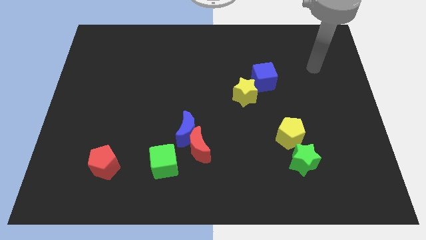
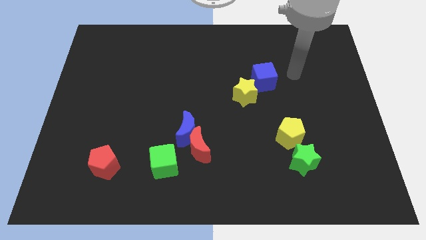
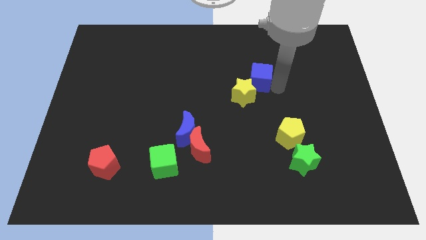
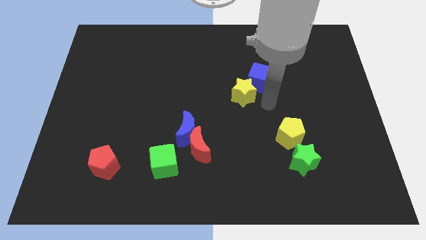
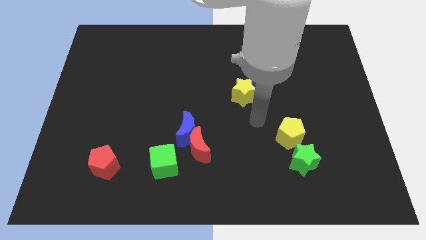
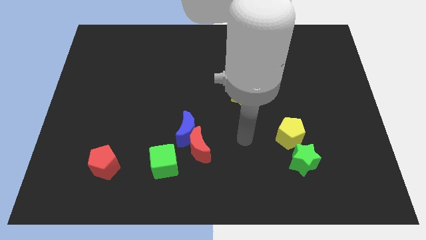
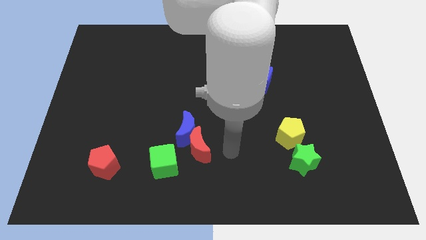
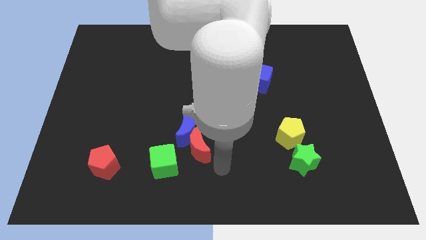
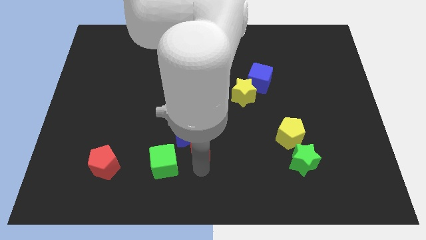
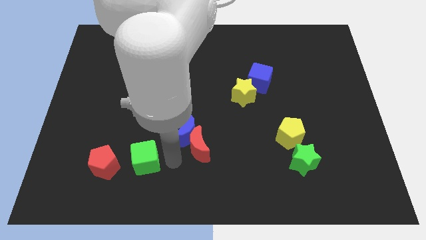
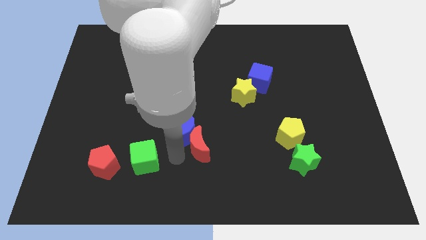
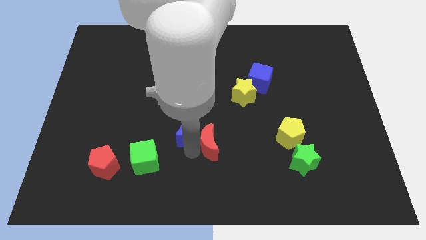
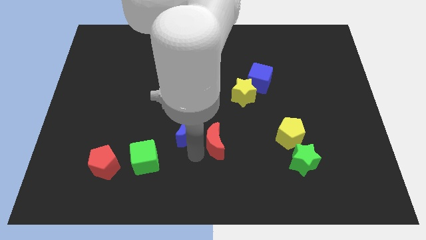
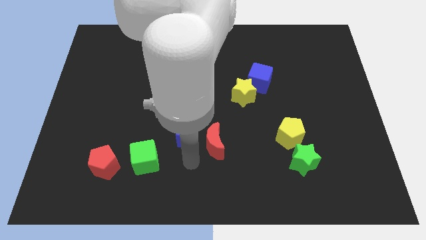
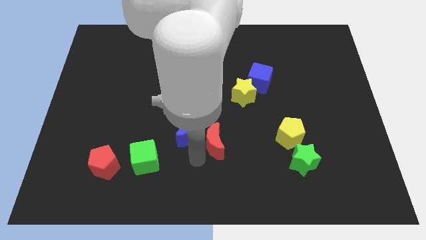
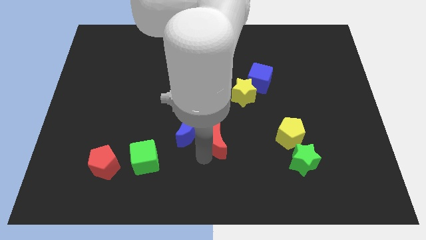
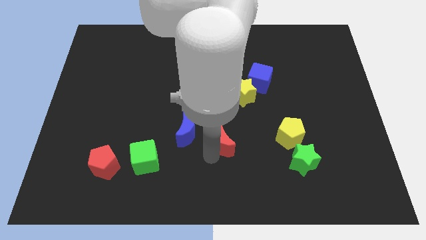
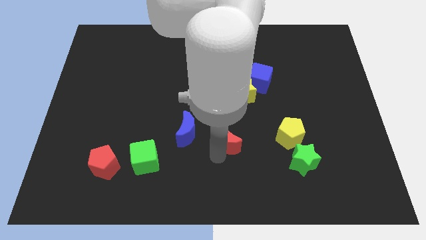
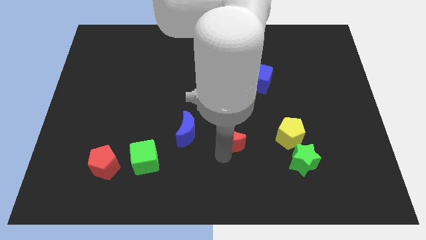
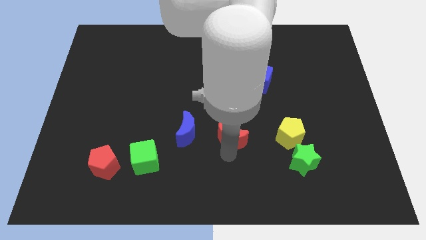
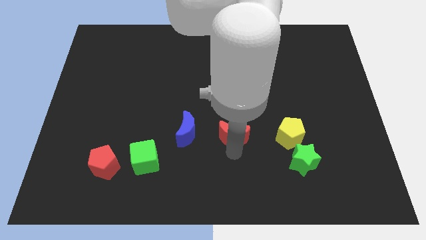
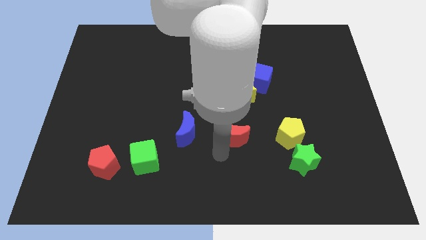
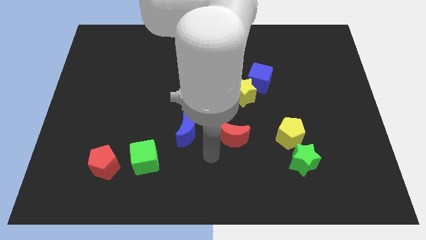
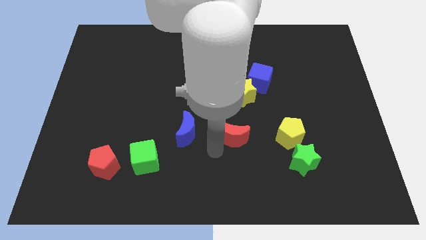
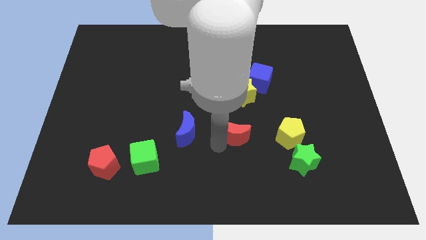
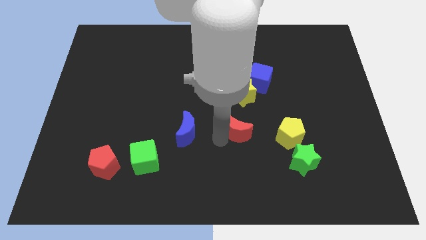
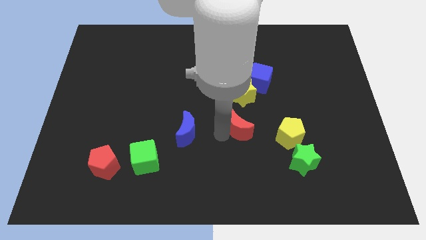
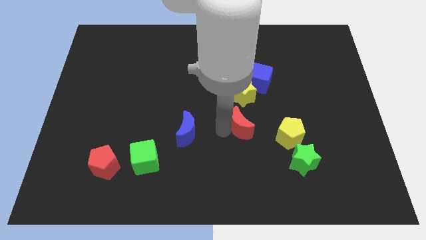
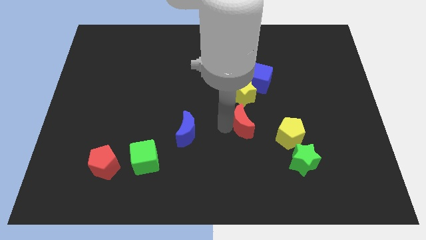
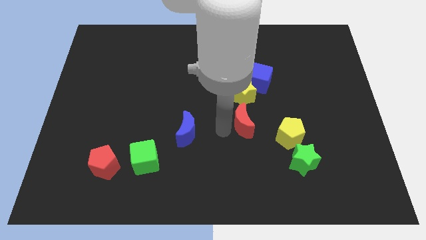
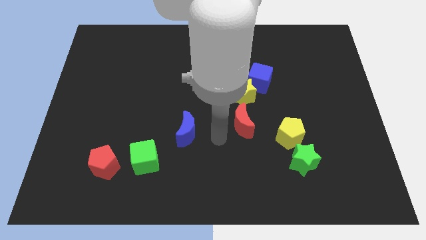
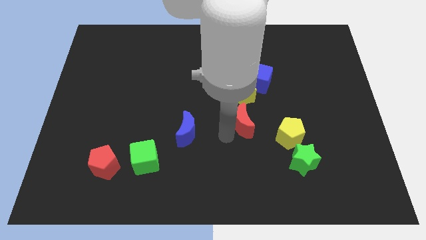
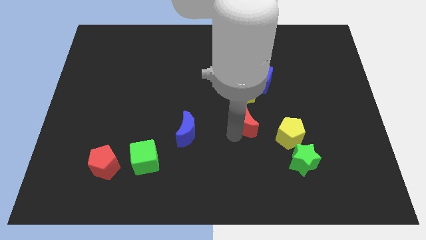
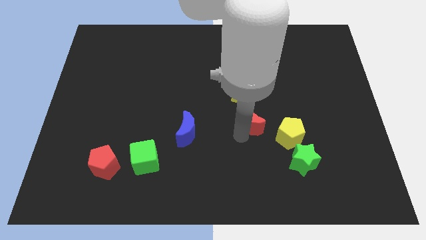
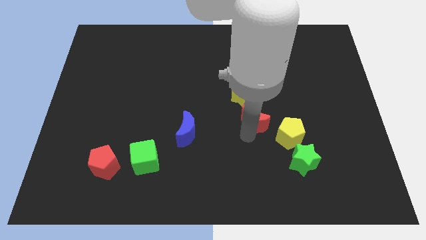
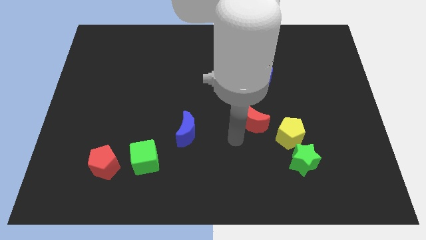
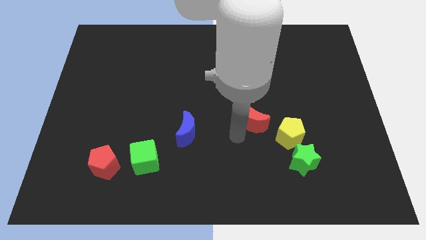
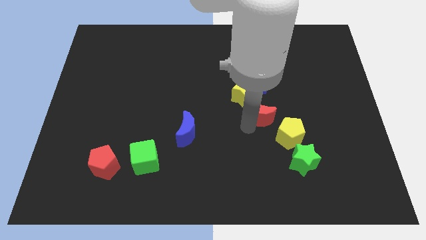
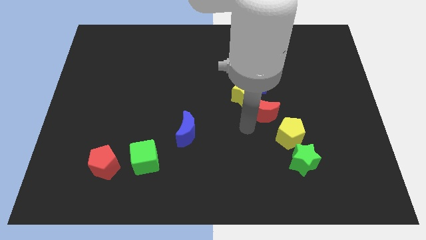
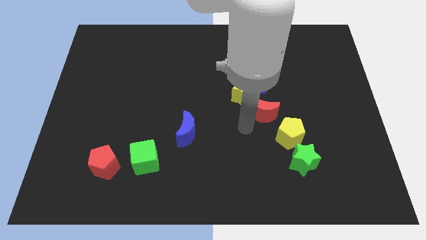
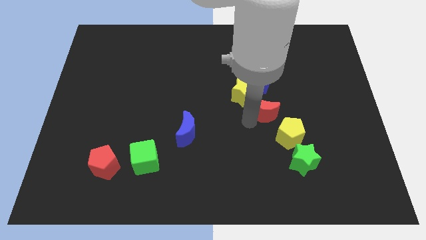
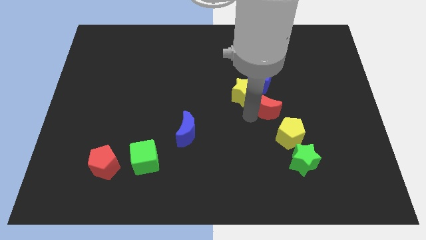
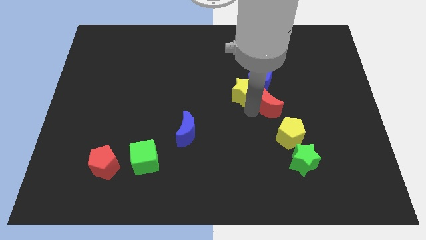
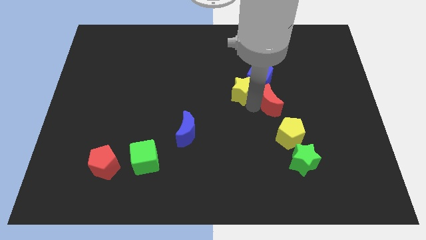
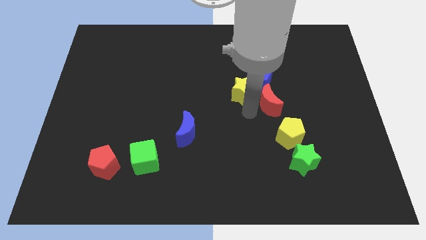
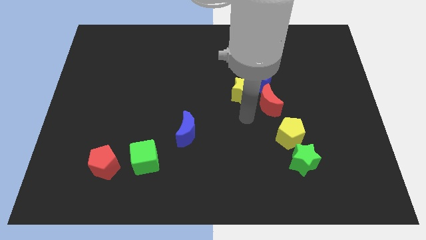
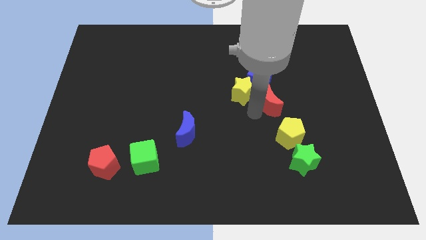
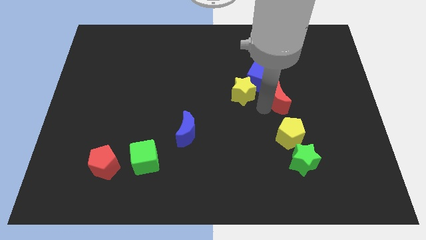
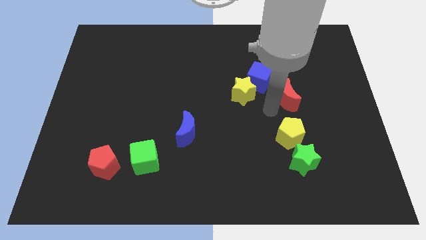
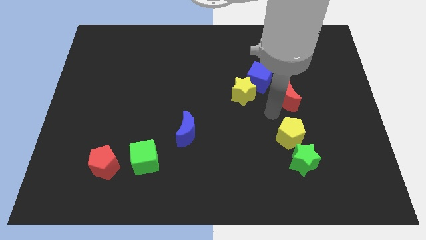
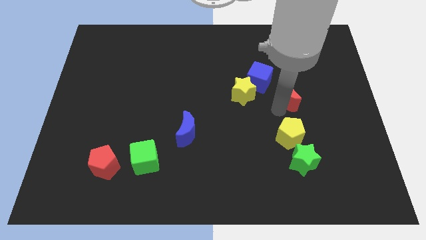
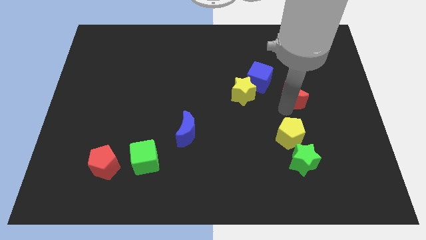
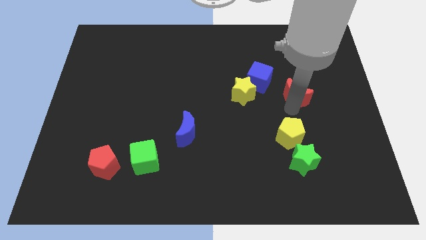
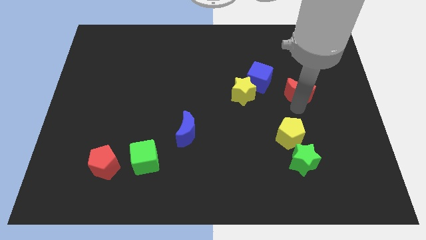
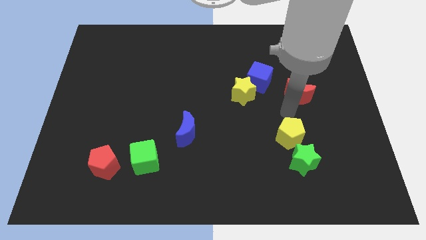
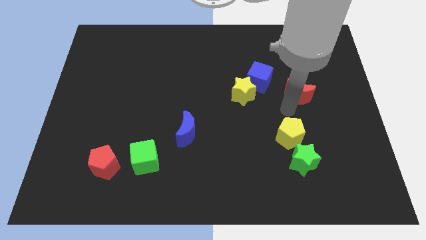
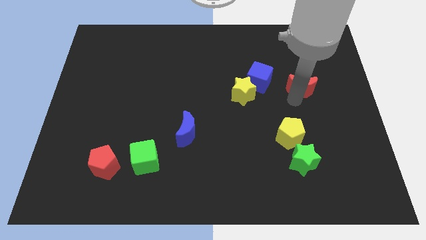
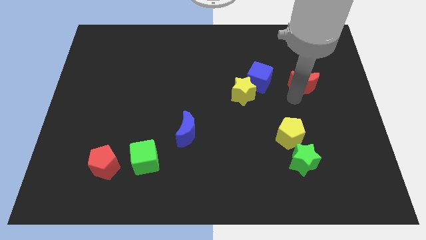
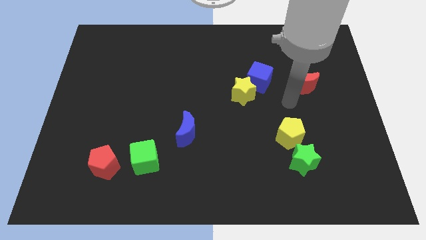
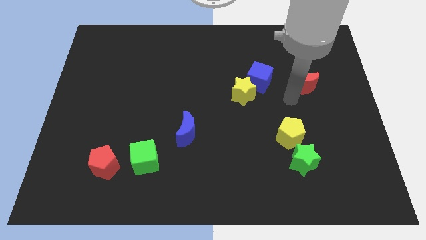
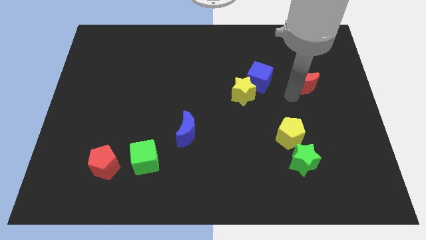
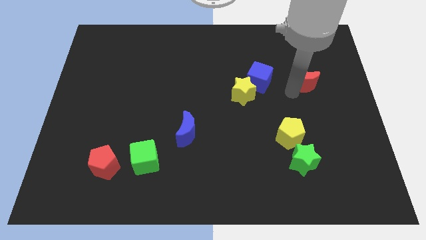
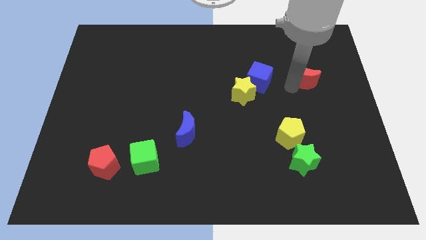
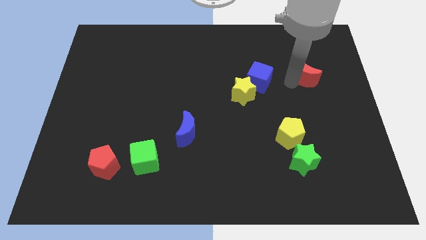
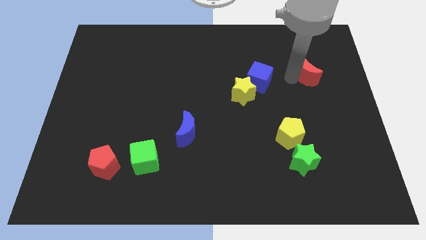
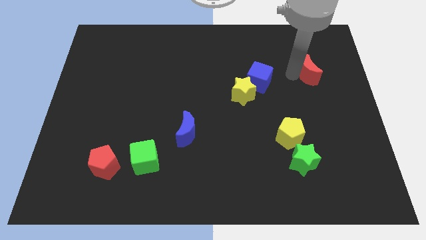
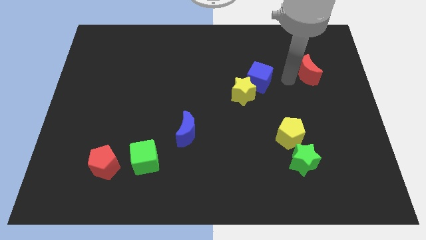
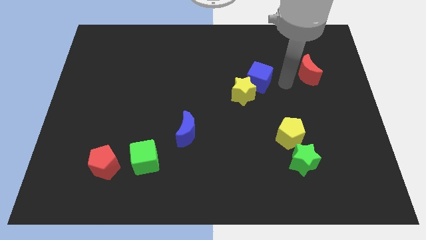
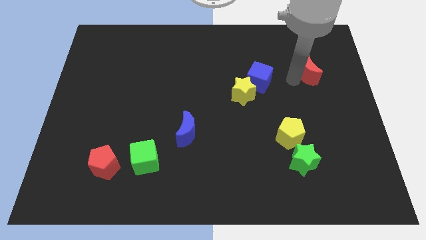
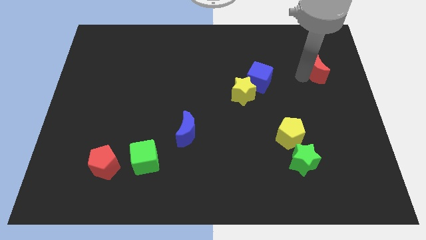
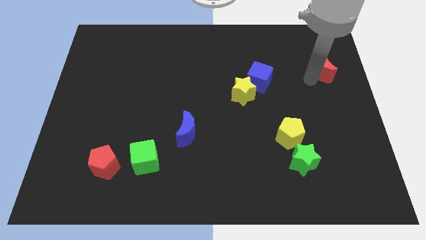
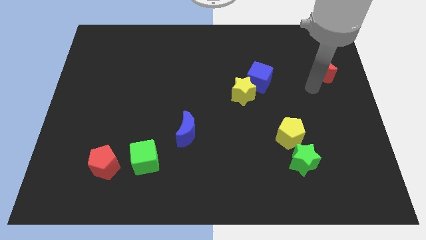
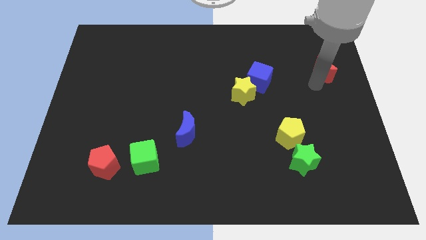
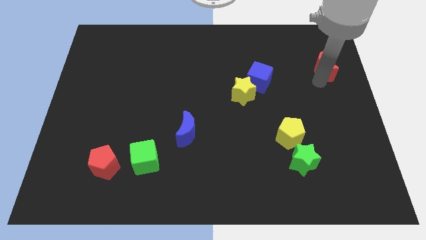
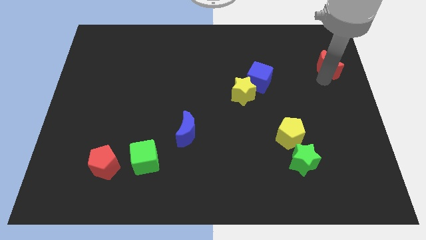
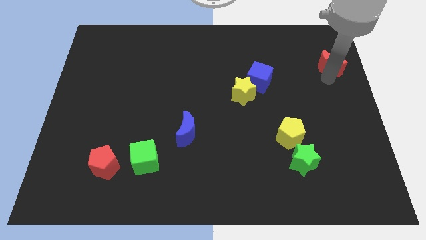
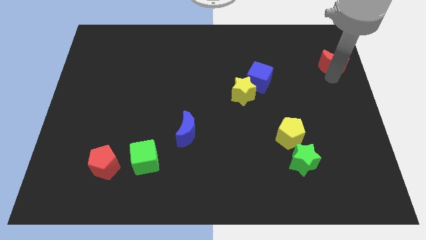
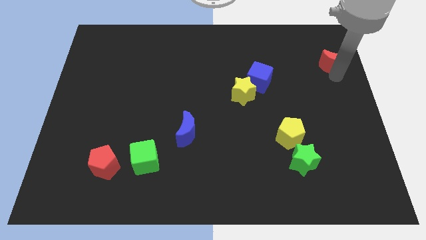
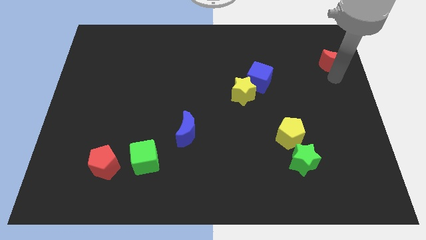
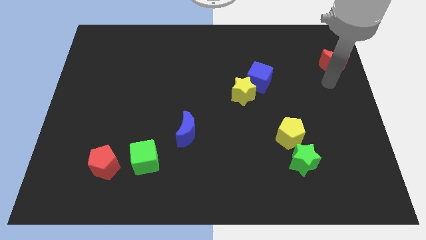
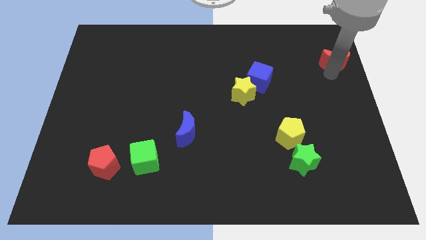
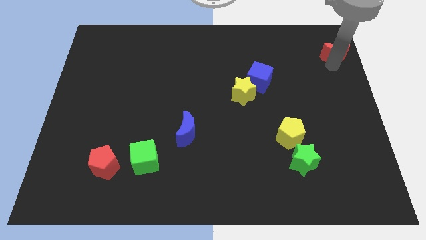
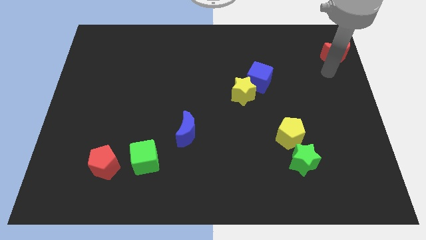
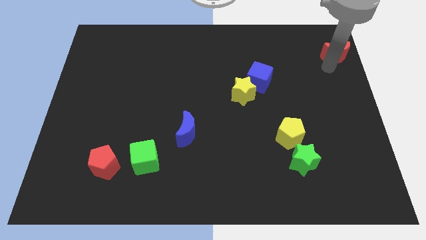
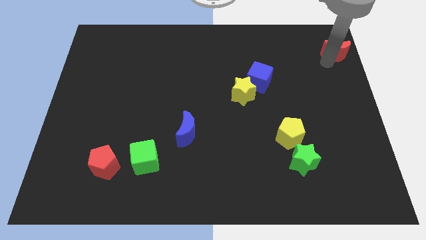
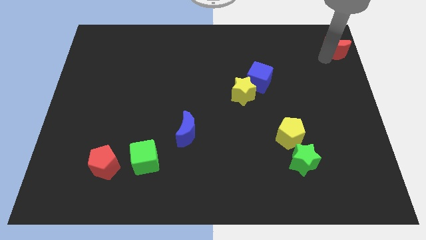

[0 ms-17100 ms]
put the red moon to the top right
